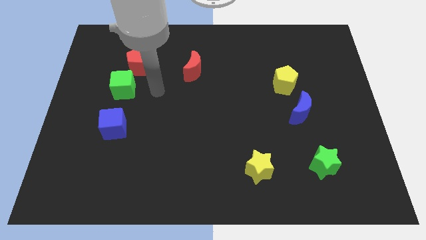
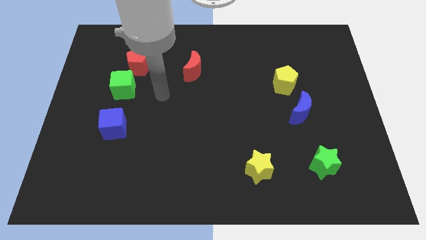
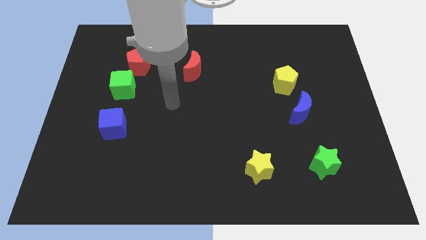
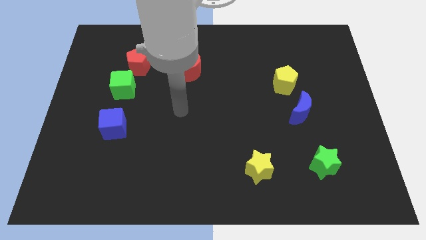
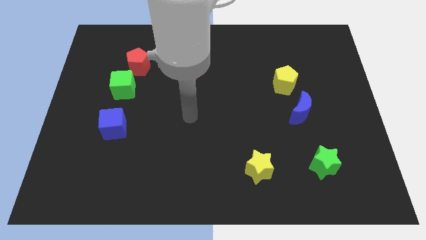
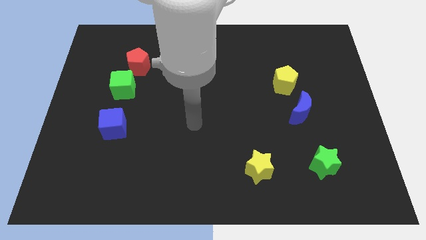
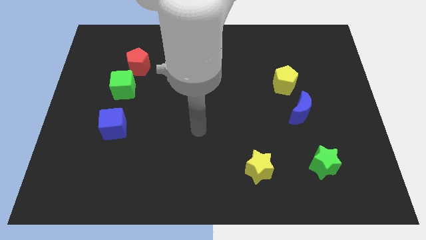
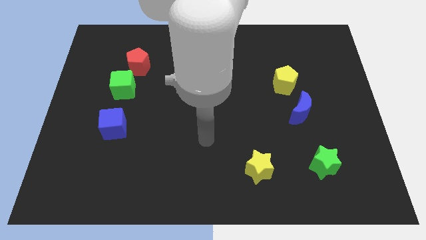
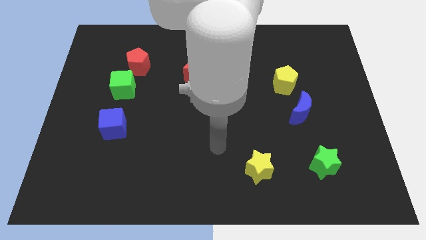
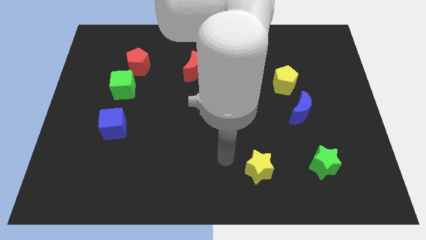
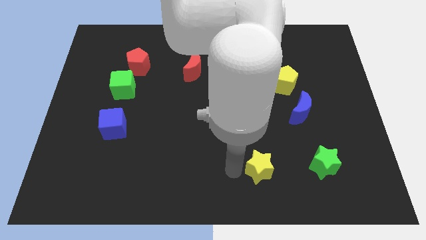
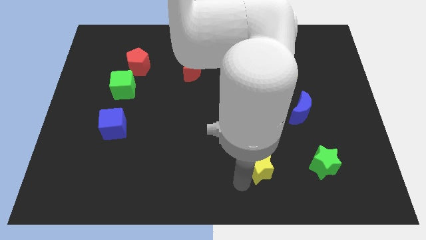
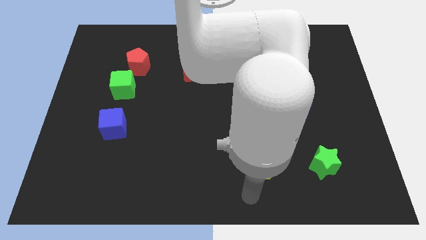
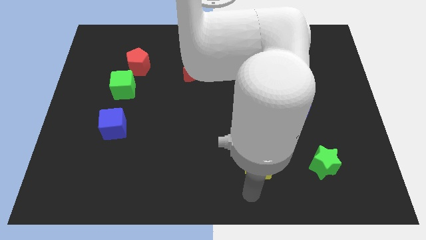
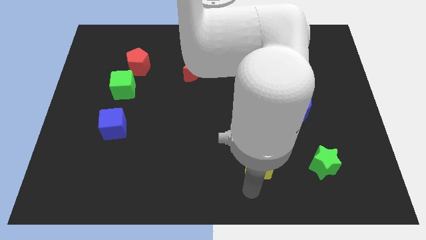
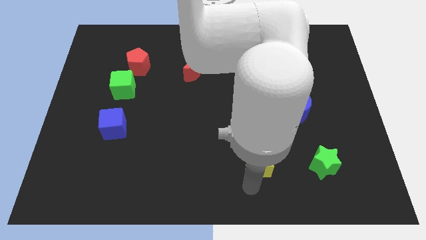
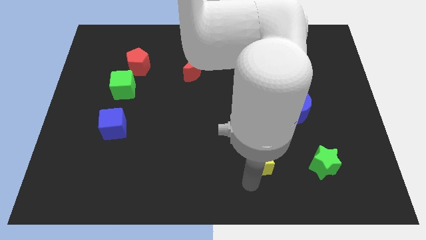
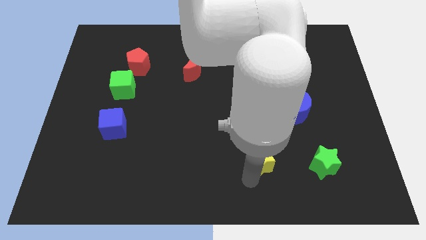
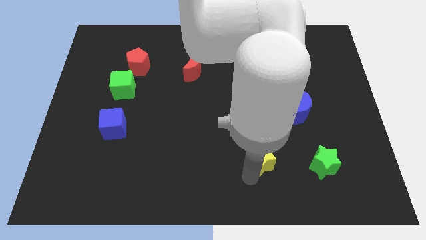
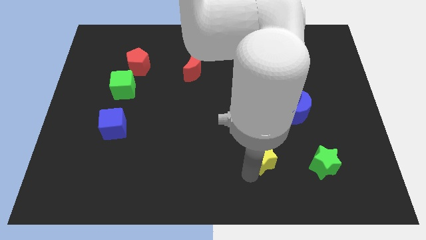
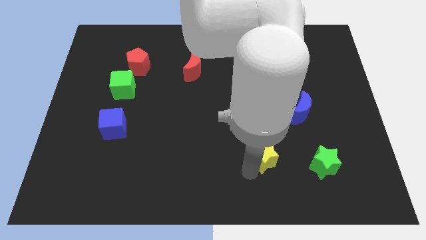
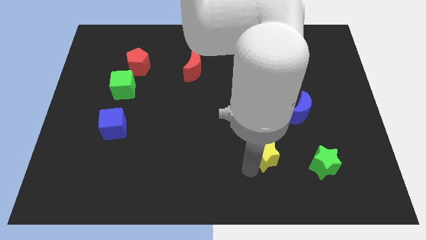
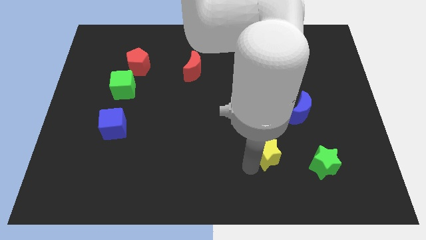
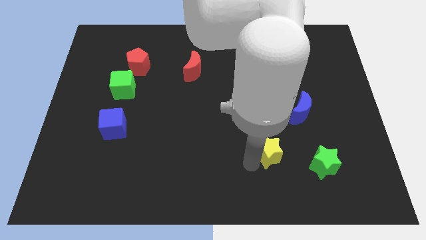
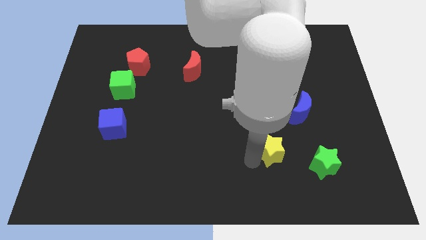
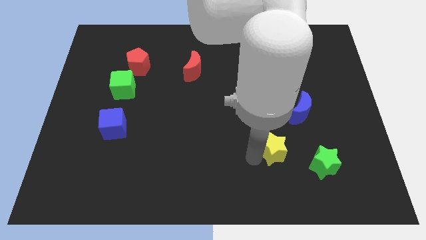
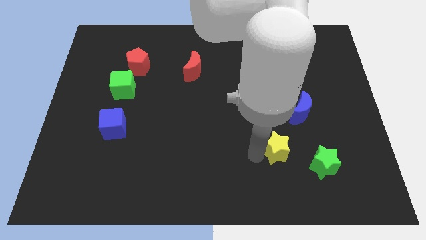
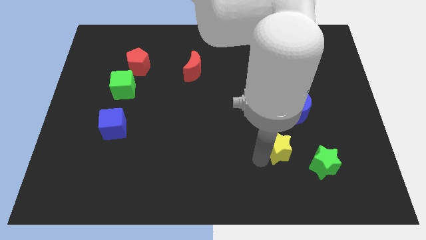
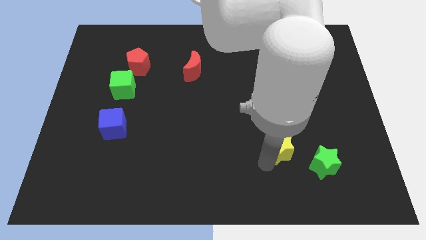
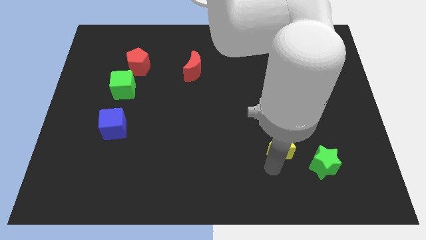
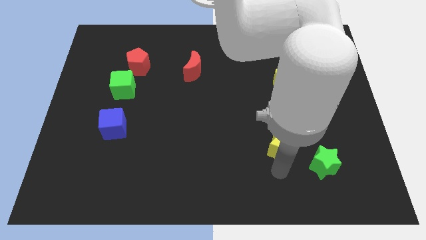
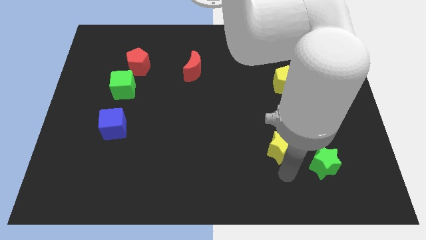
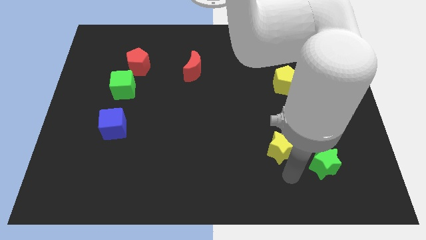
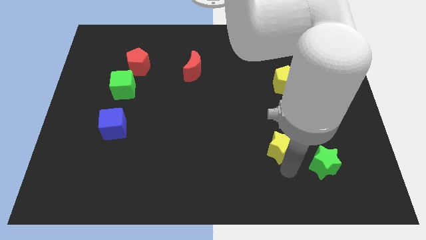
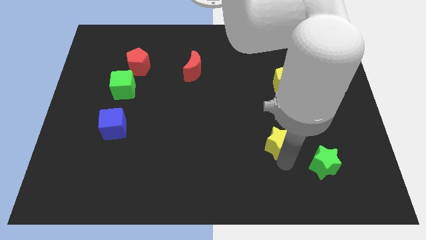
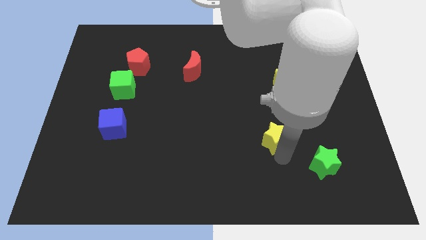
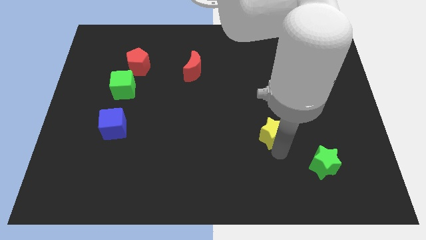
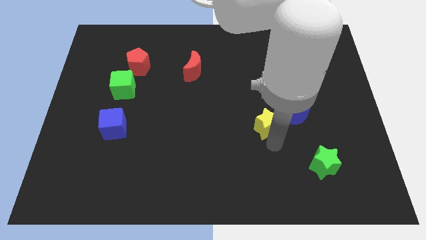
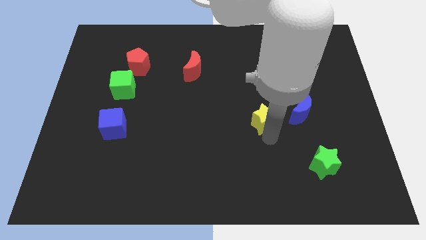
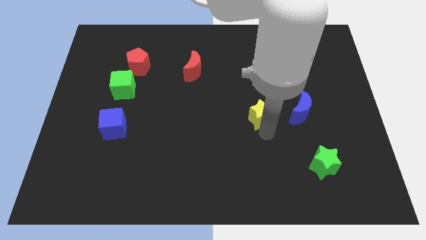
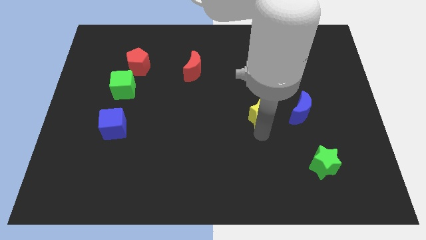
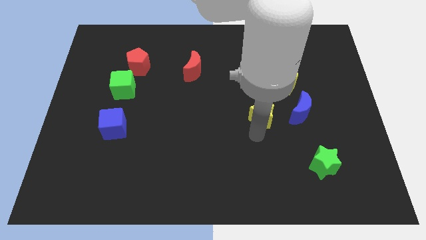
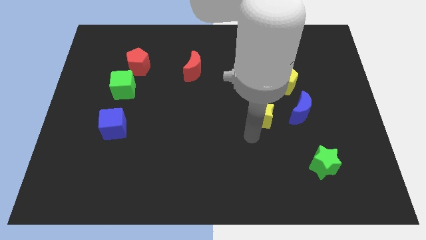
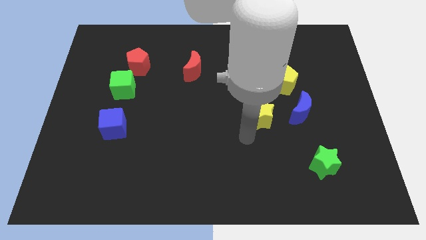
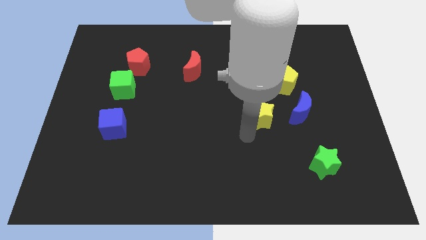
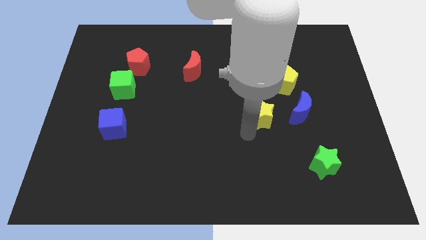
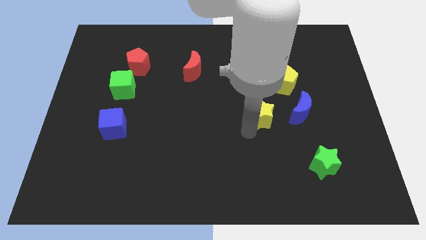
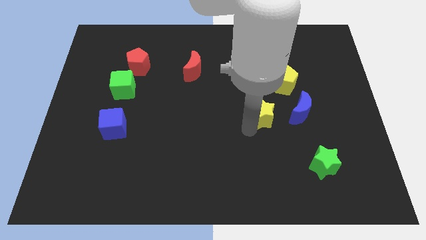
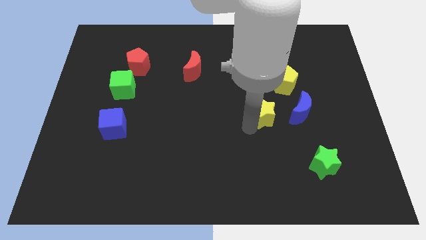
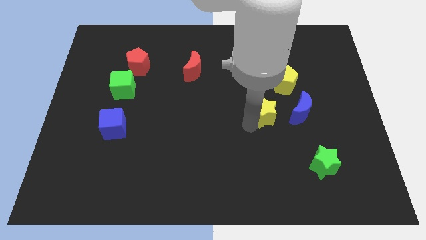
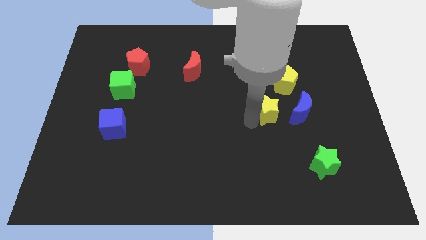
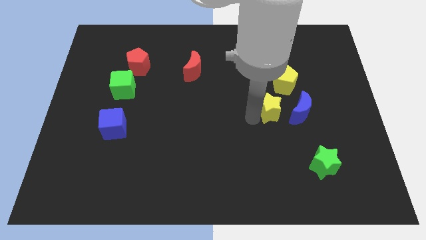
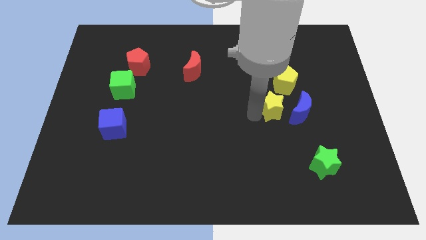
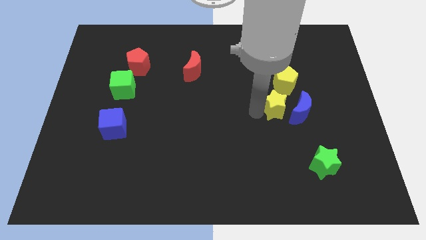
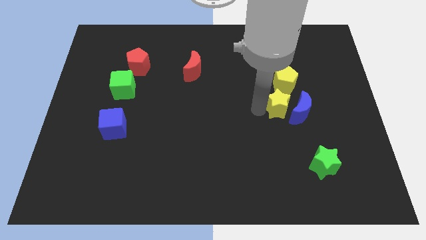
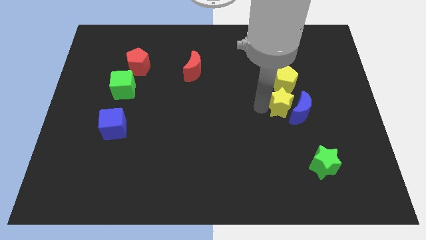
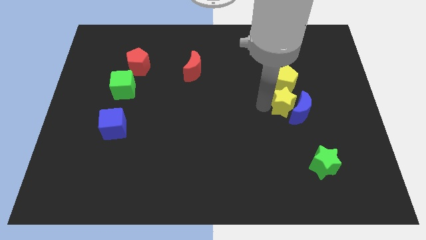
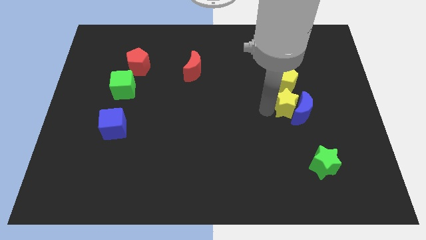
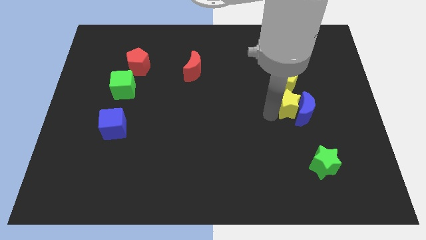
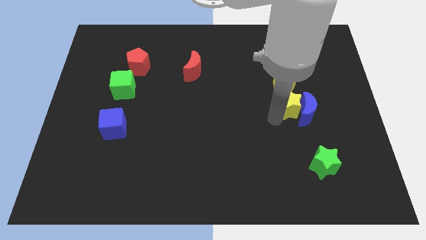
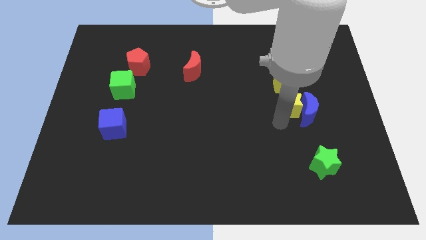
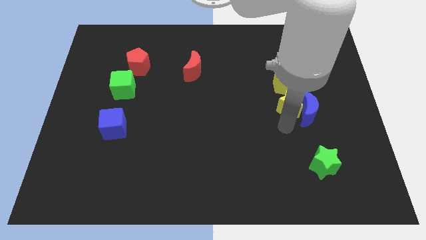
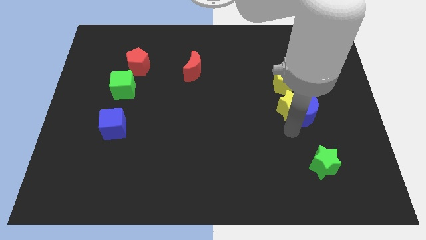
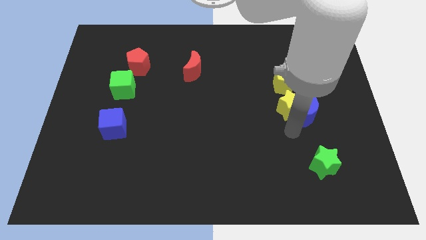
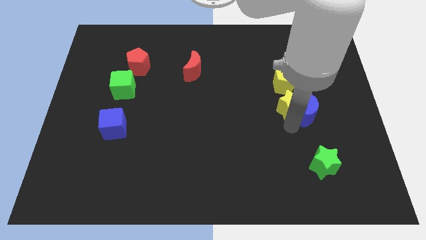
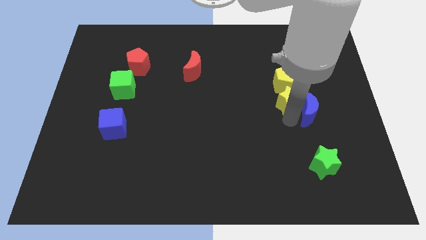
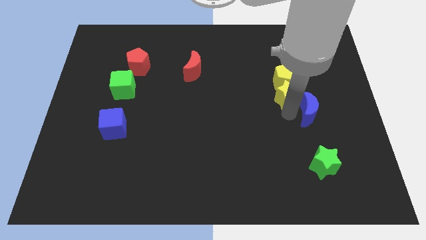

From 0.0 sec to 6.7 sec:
put the yellow star towards the yellow pentagon

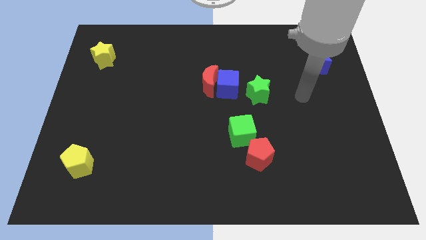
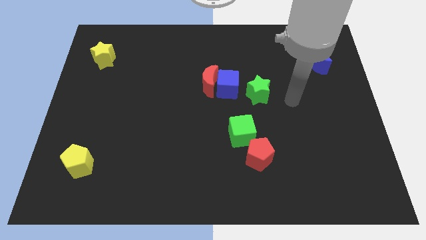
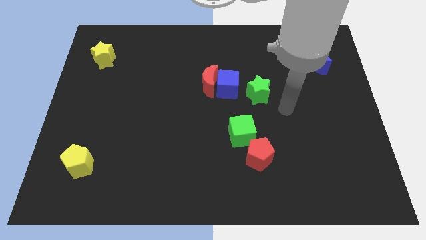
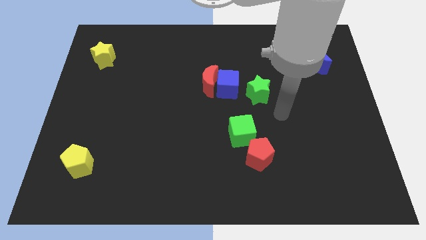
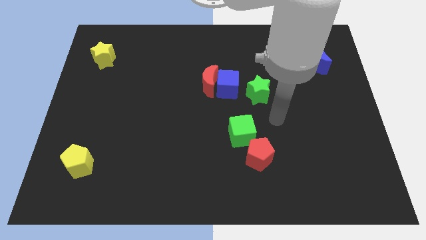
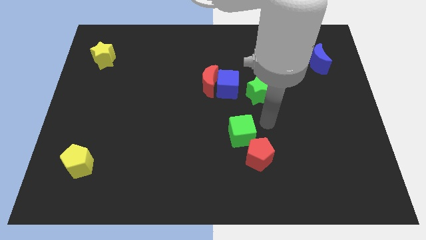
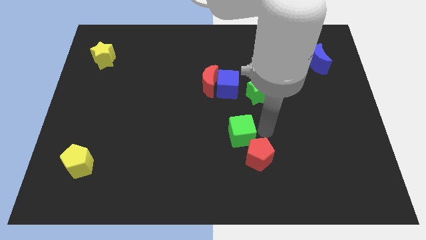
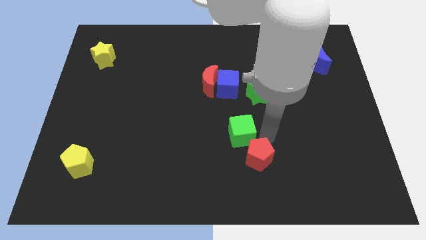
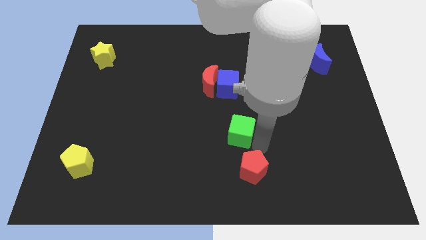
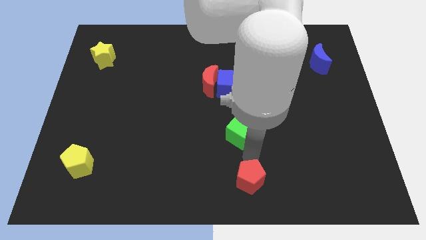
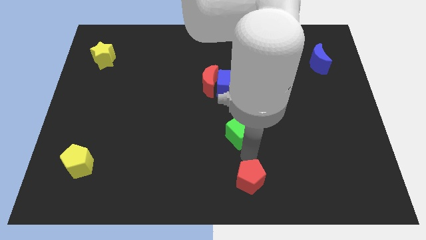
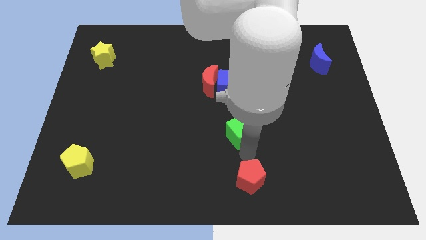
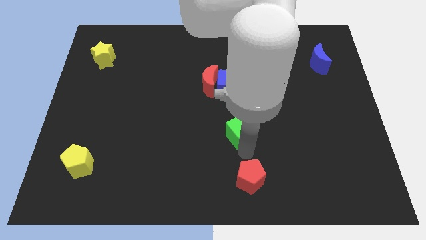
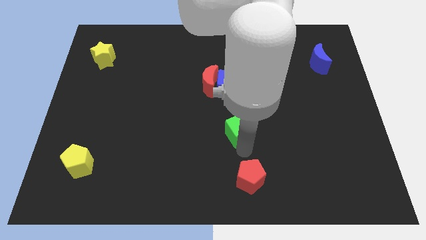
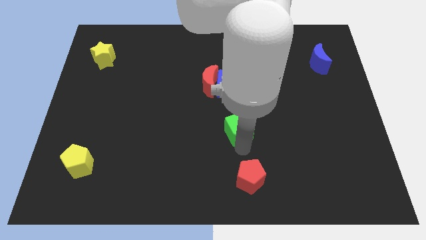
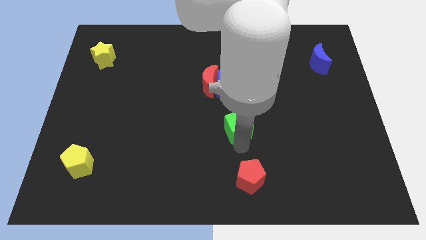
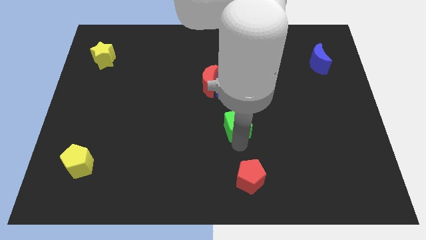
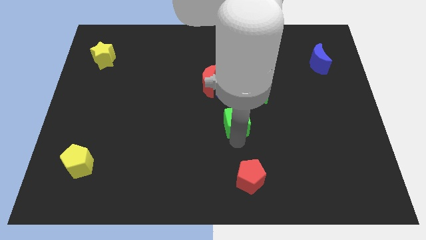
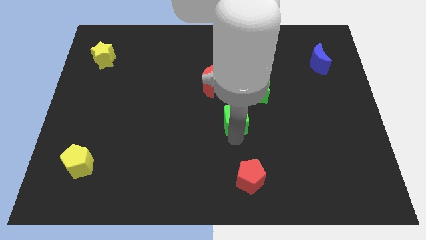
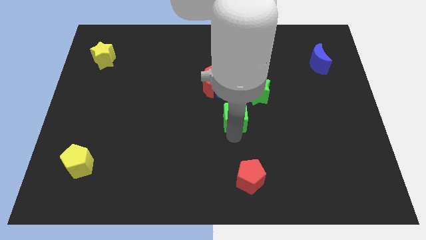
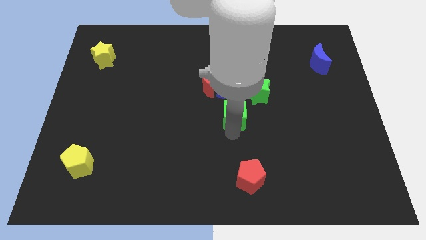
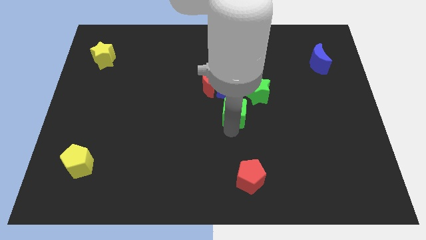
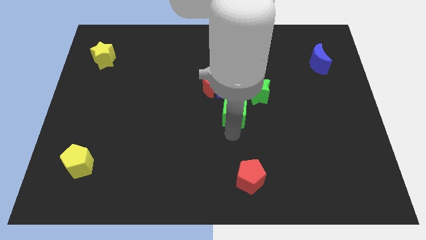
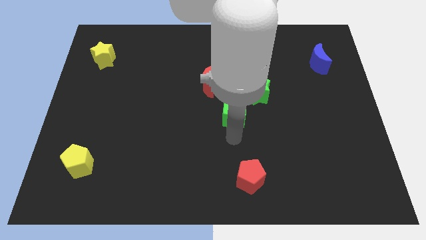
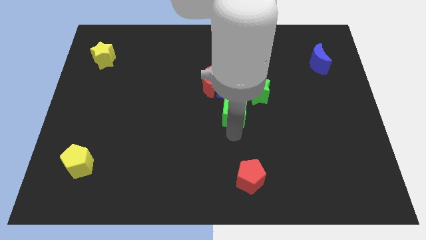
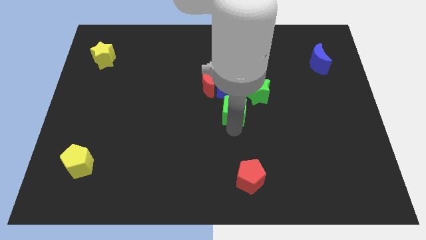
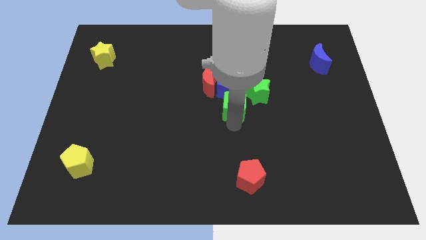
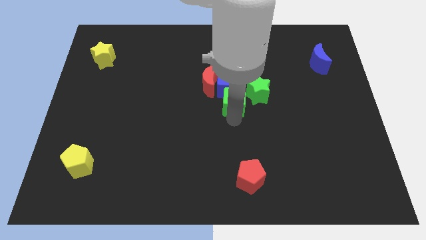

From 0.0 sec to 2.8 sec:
push the green cube to the blue cube
